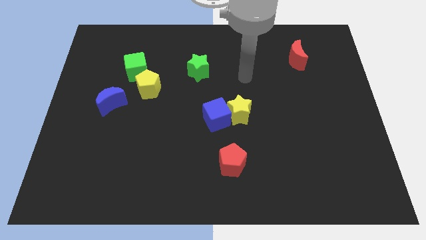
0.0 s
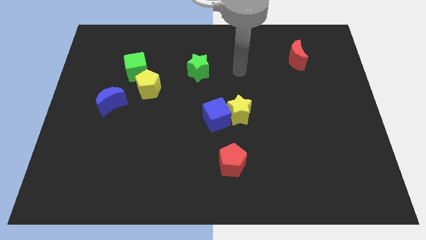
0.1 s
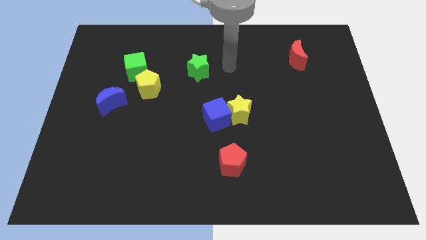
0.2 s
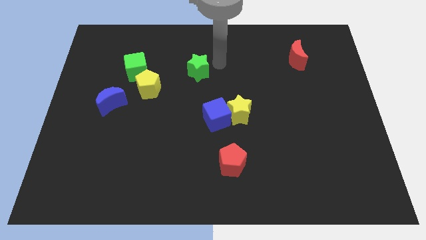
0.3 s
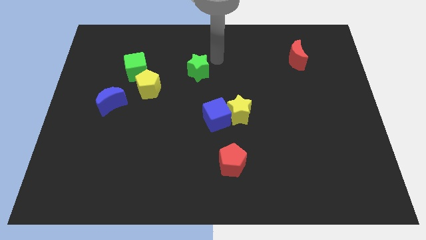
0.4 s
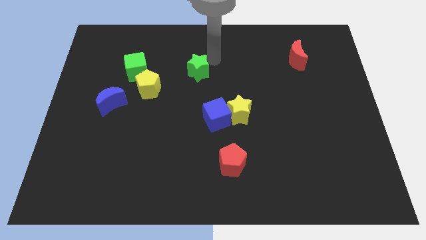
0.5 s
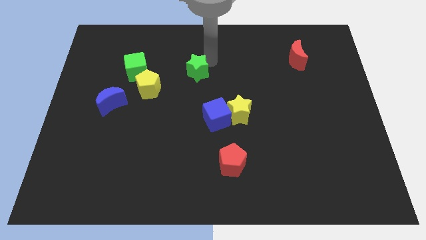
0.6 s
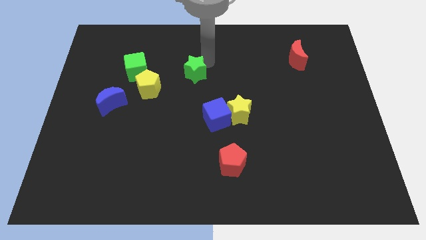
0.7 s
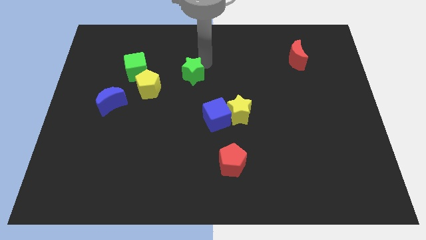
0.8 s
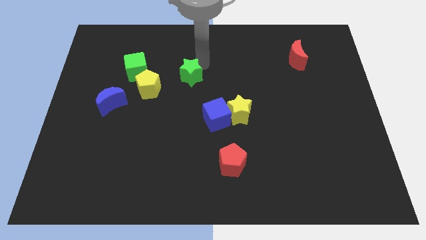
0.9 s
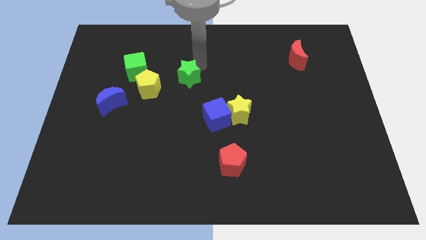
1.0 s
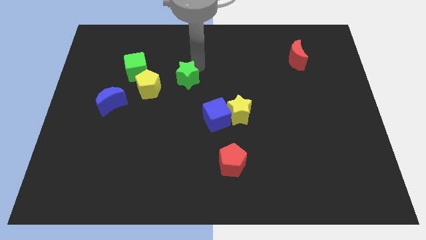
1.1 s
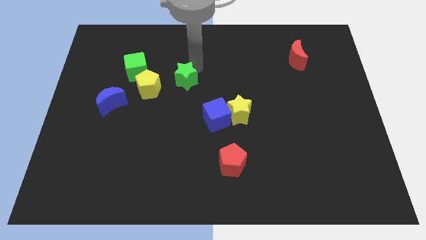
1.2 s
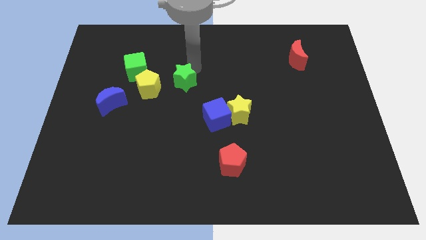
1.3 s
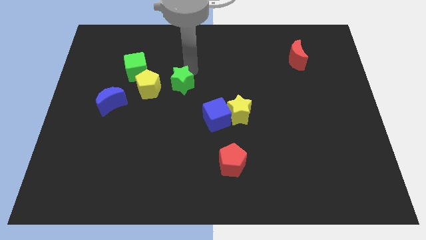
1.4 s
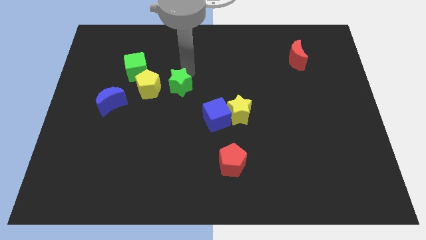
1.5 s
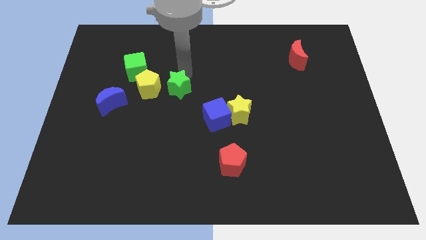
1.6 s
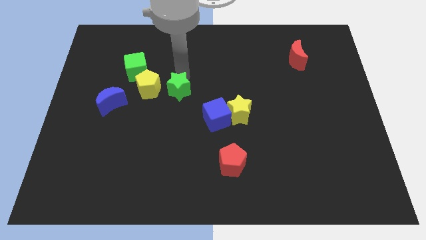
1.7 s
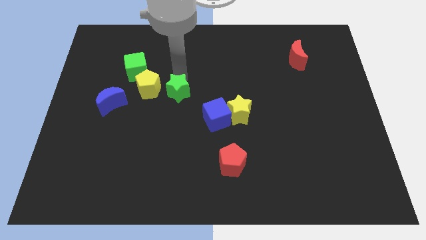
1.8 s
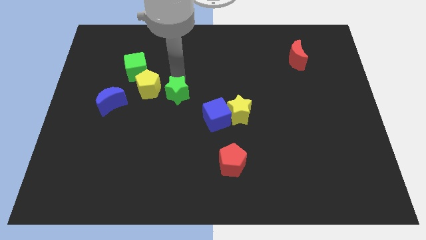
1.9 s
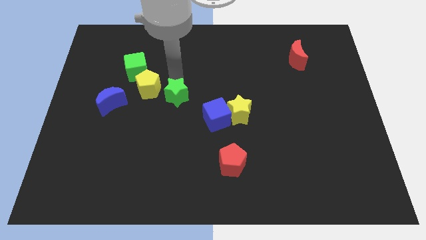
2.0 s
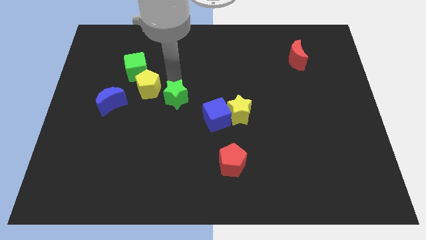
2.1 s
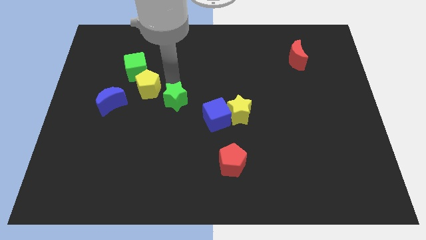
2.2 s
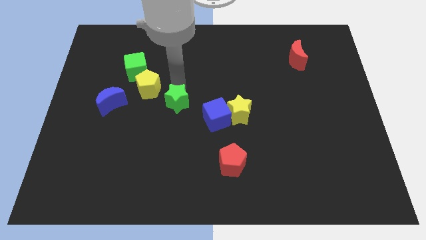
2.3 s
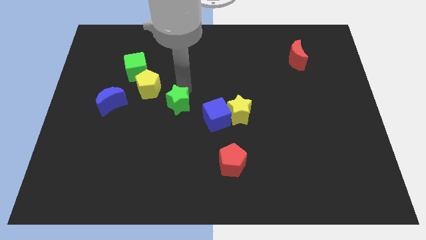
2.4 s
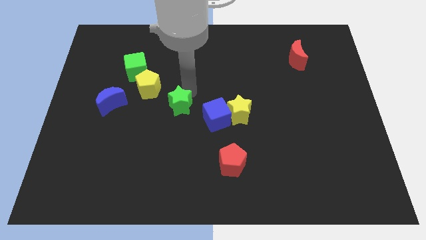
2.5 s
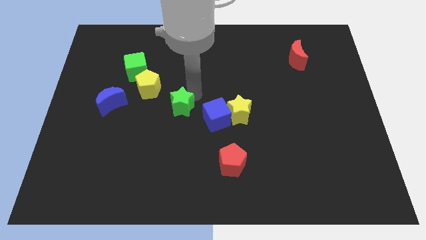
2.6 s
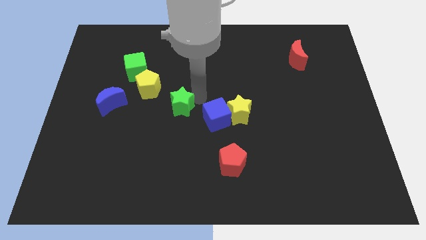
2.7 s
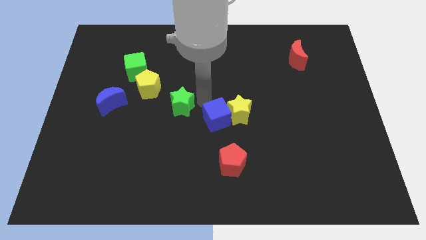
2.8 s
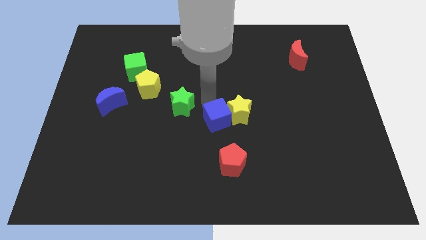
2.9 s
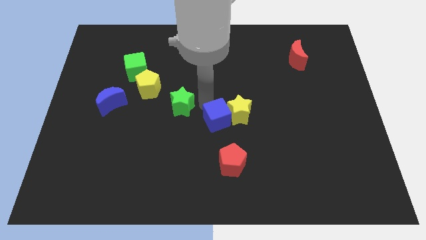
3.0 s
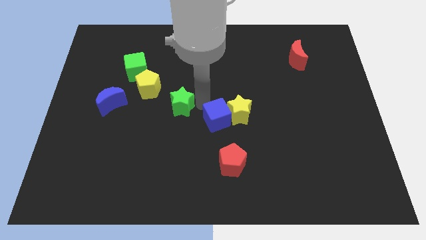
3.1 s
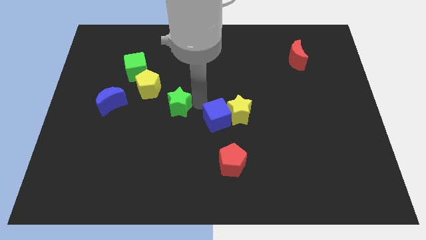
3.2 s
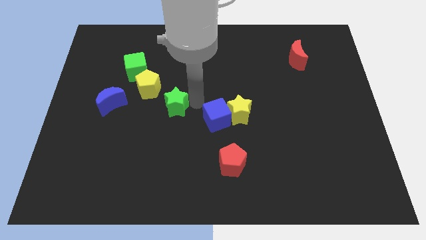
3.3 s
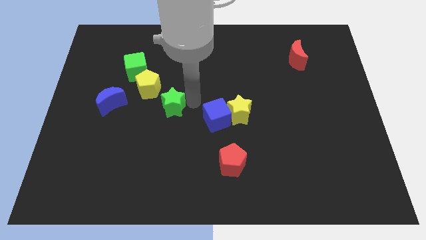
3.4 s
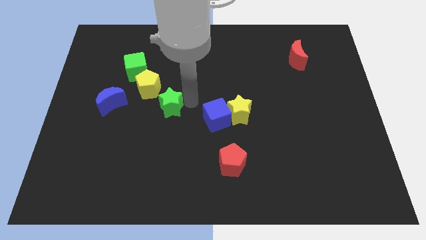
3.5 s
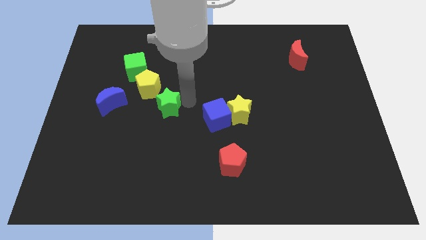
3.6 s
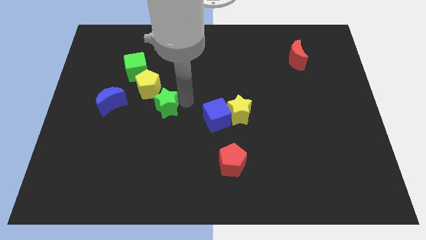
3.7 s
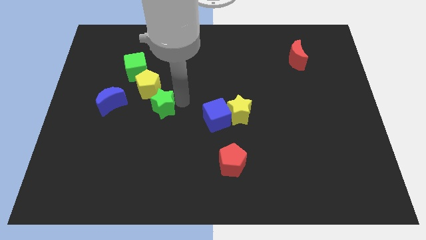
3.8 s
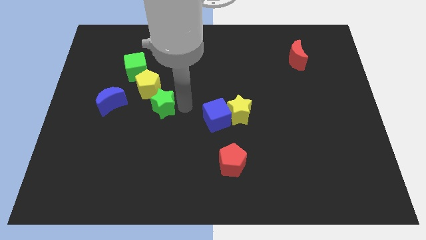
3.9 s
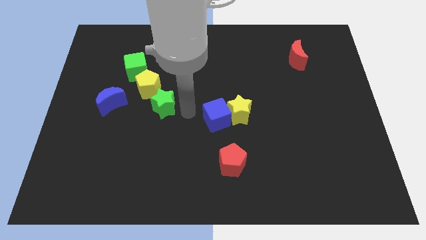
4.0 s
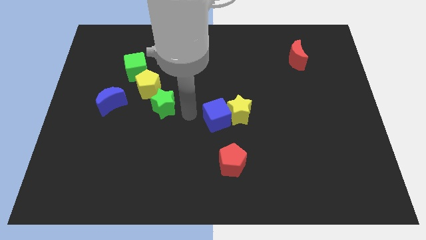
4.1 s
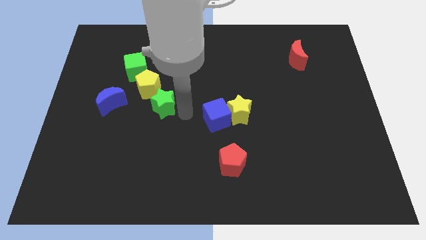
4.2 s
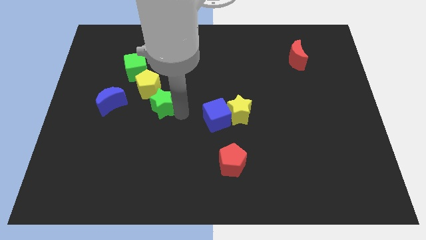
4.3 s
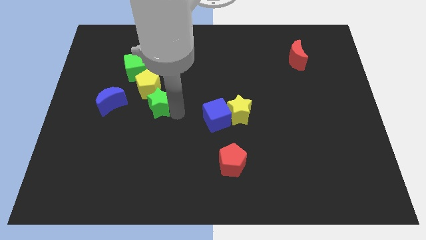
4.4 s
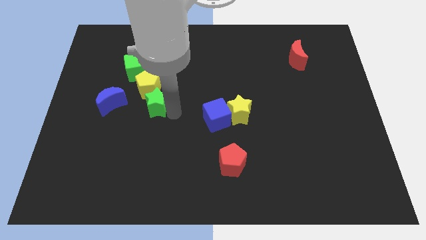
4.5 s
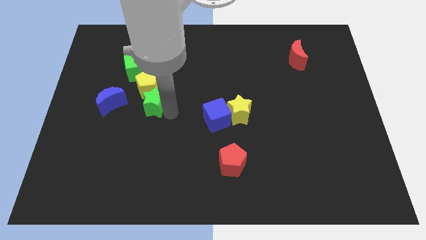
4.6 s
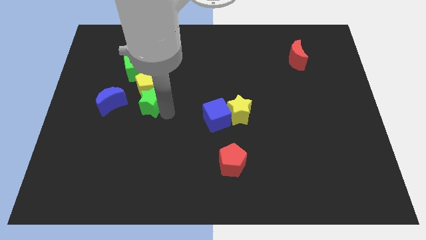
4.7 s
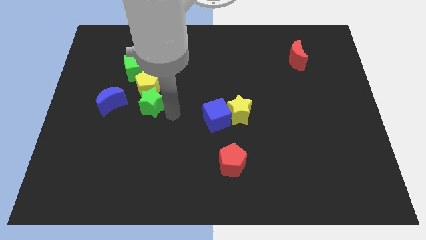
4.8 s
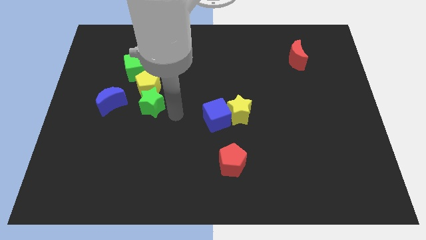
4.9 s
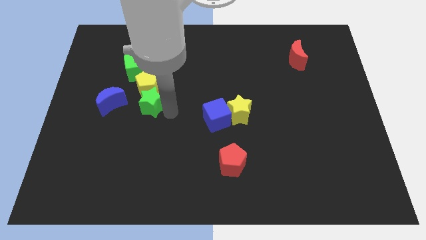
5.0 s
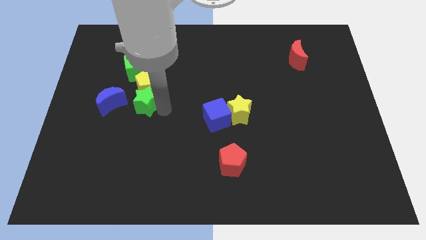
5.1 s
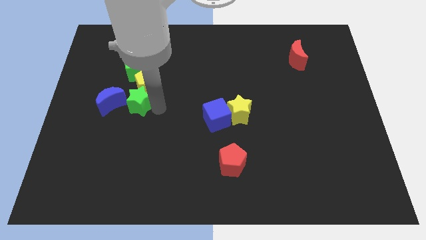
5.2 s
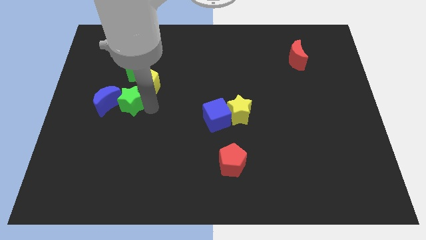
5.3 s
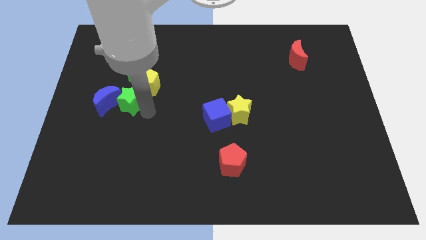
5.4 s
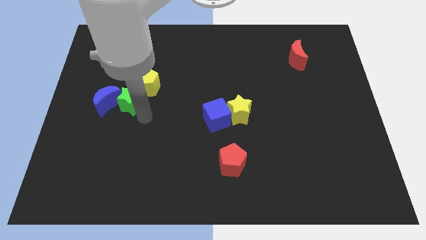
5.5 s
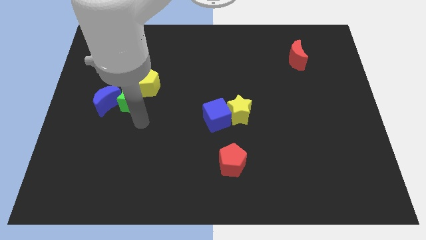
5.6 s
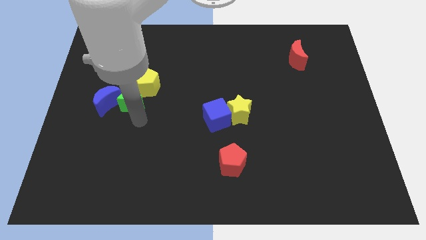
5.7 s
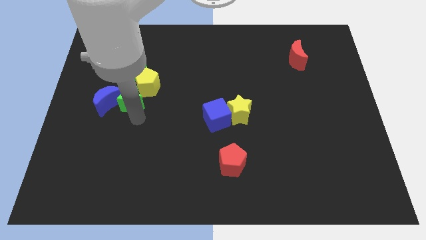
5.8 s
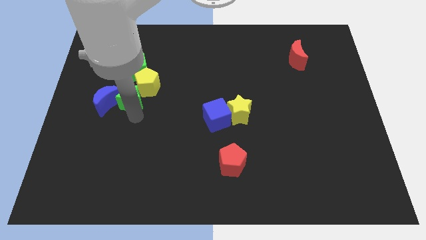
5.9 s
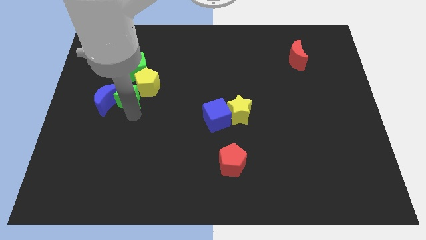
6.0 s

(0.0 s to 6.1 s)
push the green star to the left of the yellow pentagon

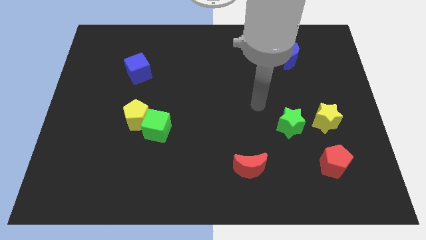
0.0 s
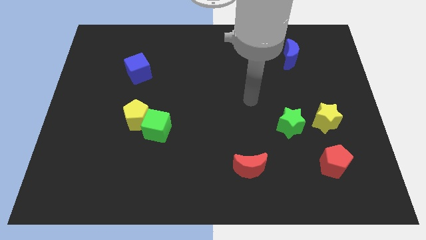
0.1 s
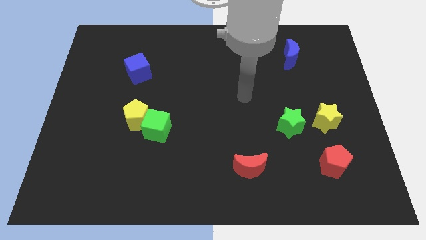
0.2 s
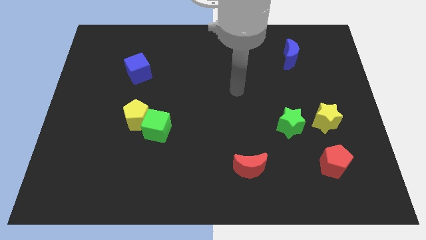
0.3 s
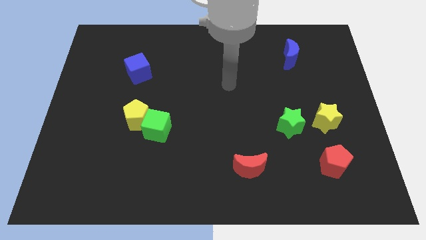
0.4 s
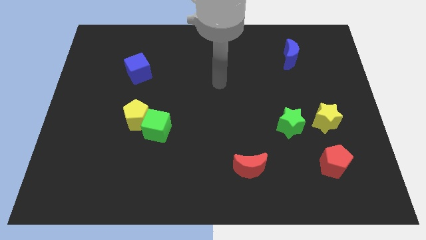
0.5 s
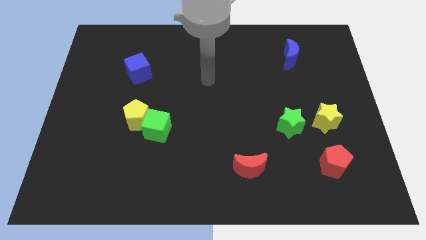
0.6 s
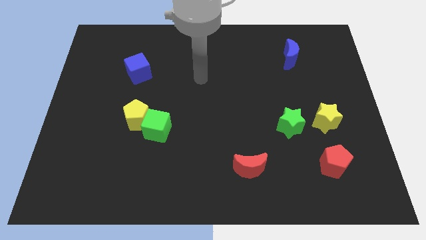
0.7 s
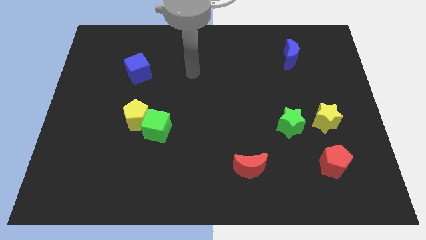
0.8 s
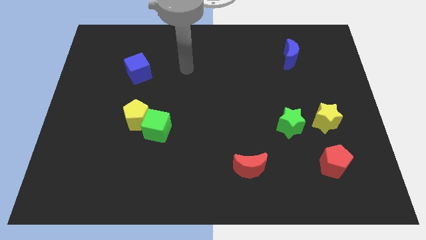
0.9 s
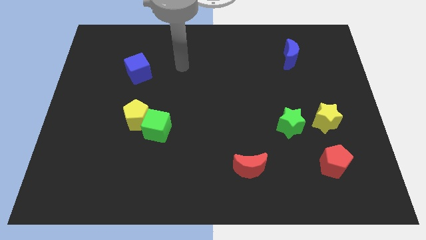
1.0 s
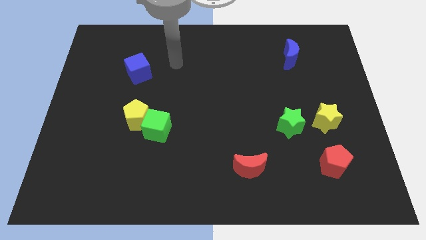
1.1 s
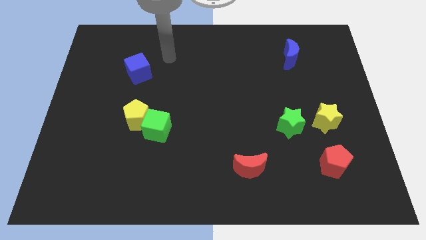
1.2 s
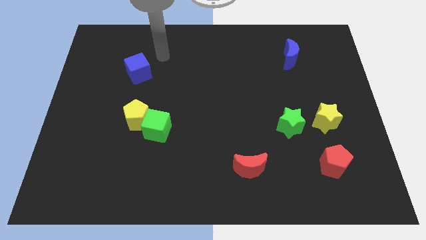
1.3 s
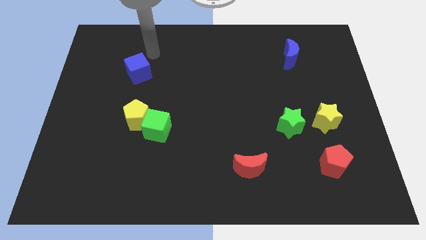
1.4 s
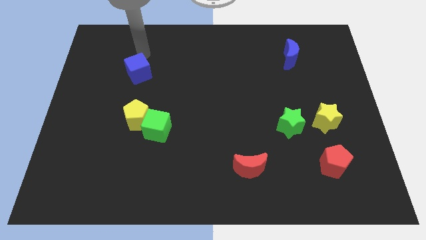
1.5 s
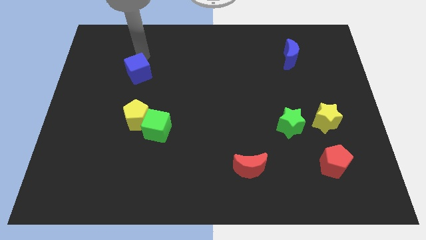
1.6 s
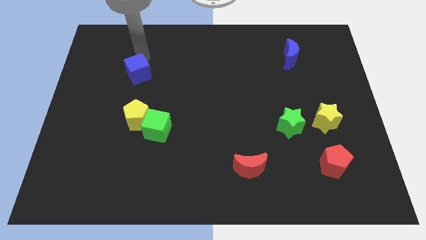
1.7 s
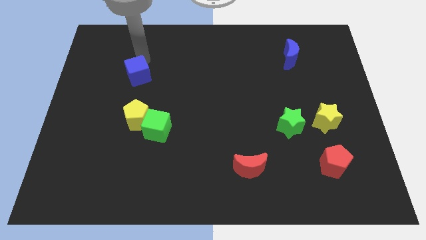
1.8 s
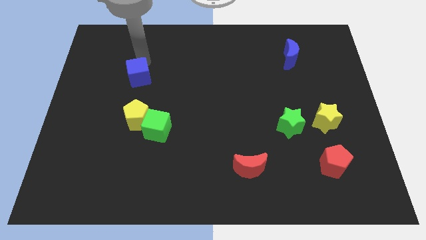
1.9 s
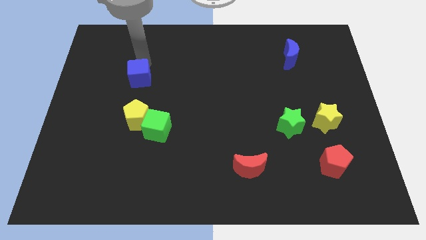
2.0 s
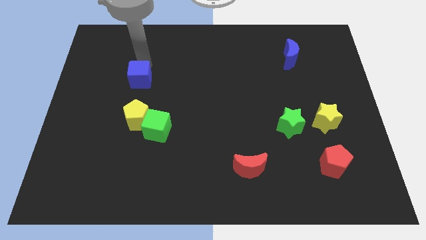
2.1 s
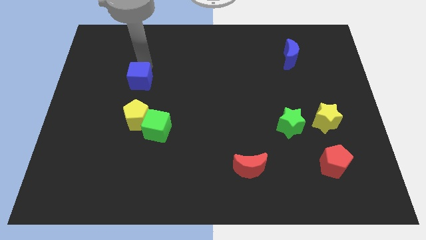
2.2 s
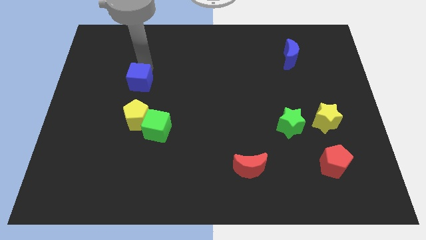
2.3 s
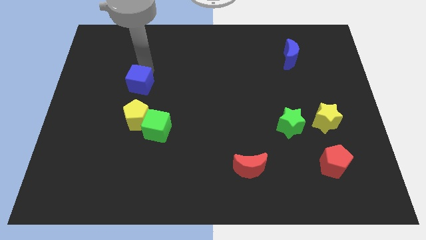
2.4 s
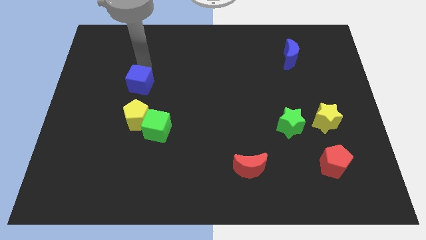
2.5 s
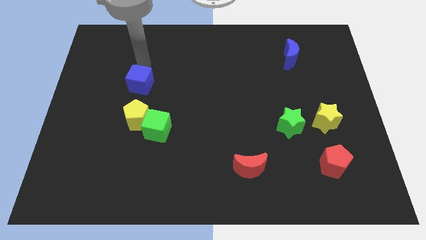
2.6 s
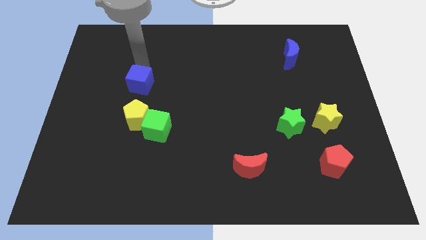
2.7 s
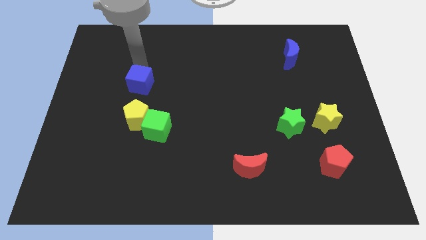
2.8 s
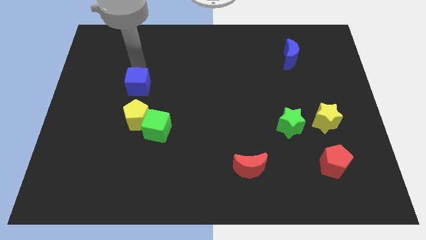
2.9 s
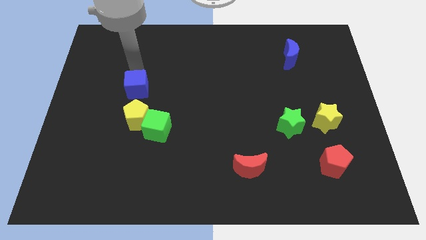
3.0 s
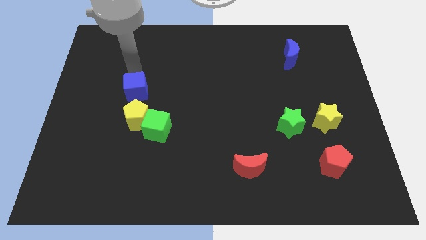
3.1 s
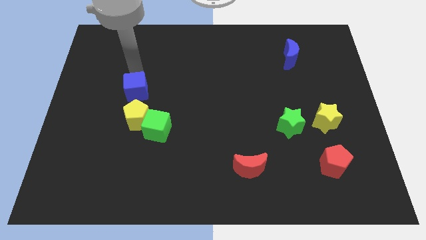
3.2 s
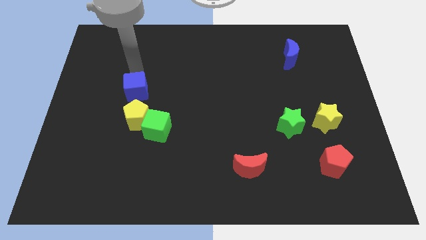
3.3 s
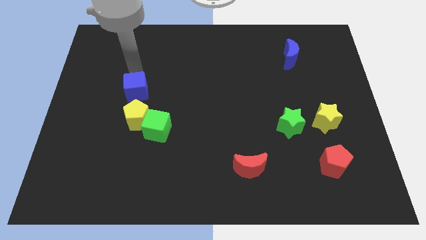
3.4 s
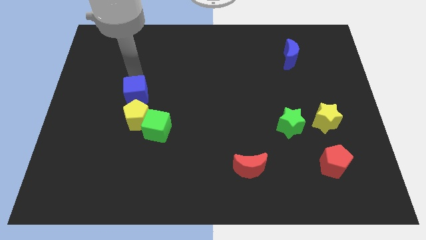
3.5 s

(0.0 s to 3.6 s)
slide the blue cube to the top left side of the green cube
